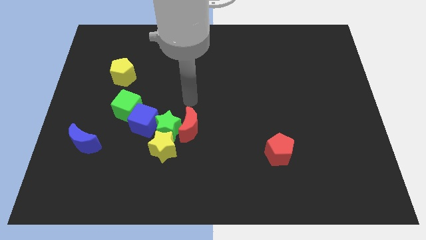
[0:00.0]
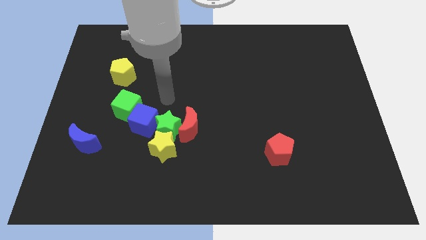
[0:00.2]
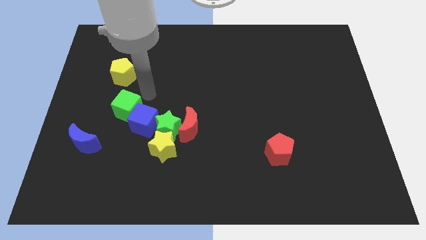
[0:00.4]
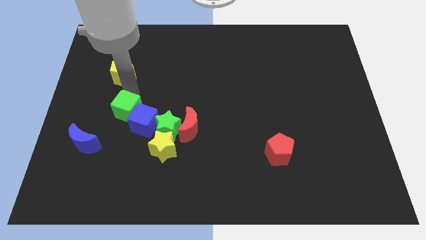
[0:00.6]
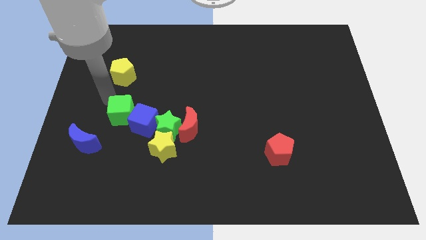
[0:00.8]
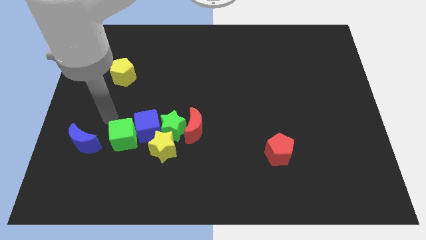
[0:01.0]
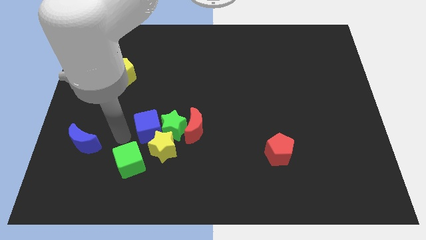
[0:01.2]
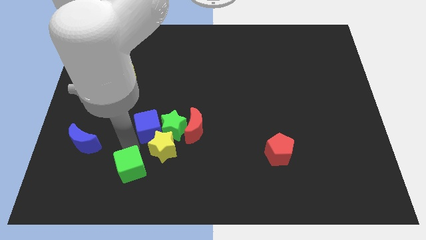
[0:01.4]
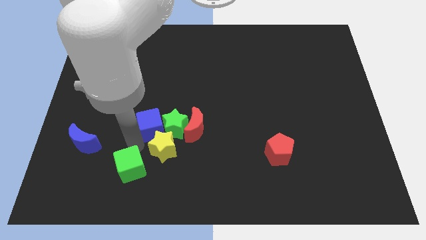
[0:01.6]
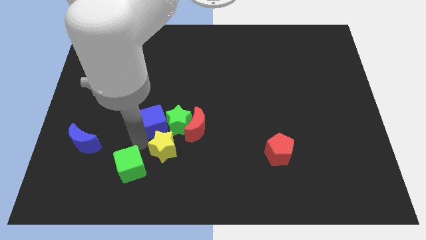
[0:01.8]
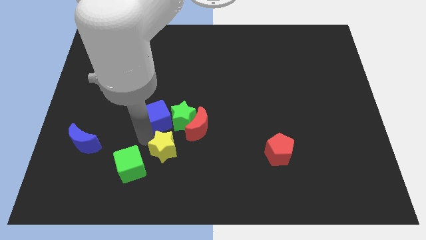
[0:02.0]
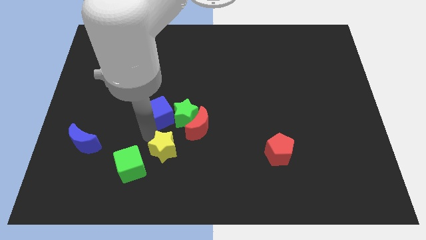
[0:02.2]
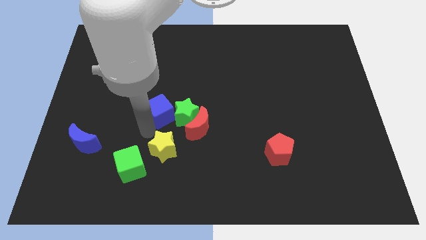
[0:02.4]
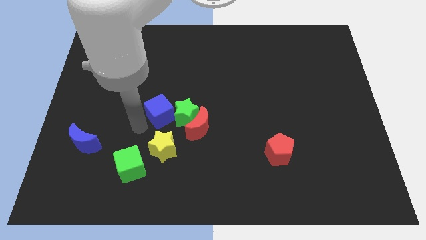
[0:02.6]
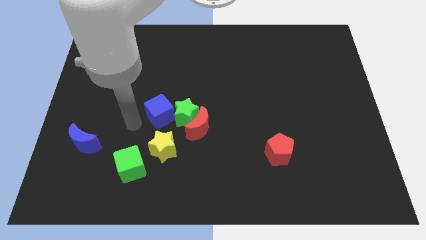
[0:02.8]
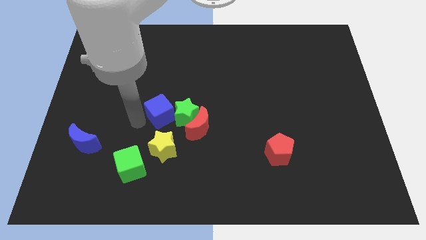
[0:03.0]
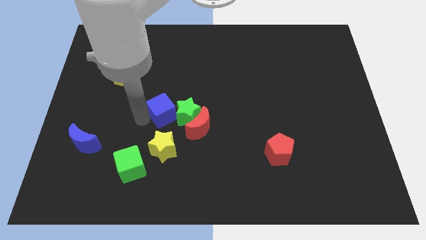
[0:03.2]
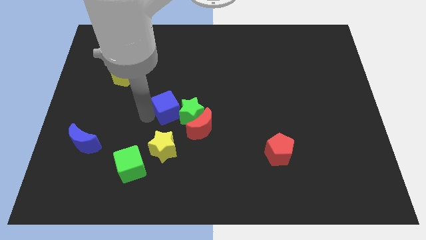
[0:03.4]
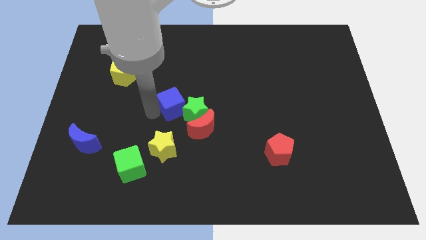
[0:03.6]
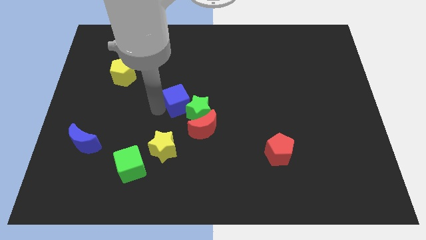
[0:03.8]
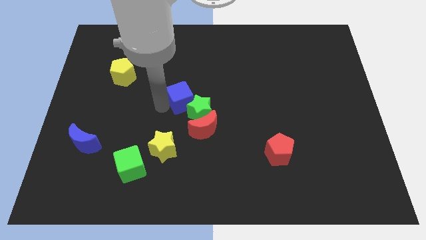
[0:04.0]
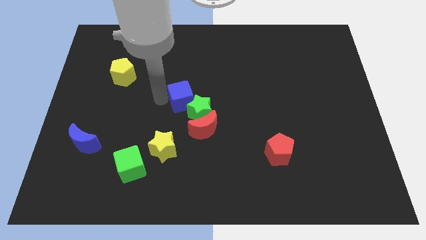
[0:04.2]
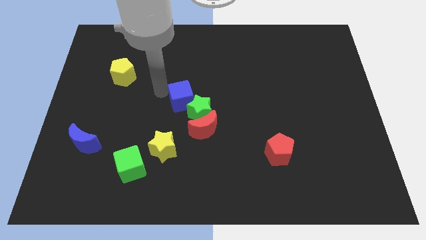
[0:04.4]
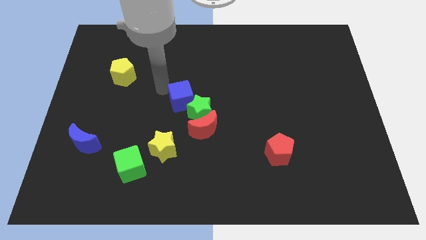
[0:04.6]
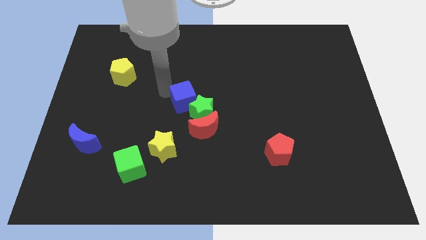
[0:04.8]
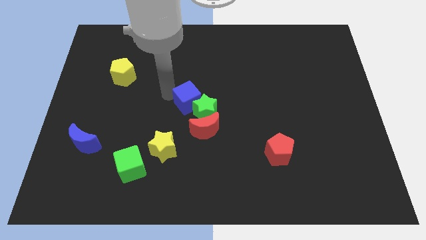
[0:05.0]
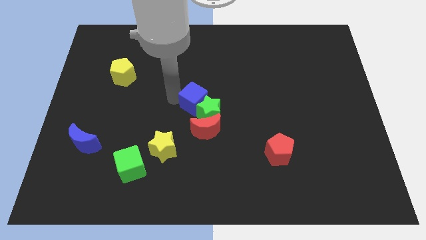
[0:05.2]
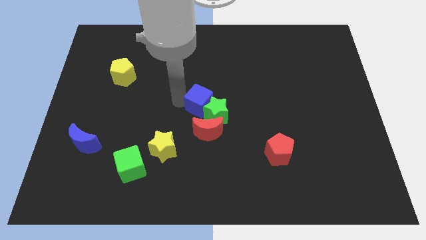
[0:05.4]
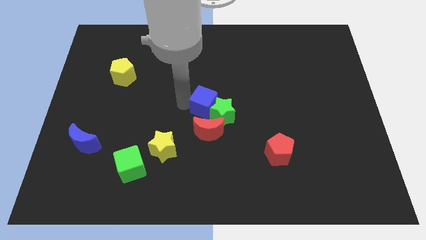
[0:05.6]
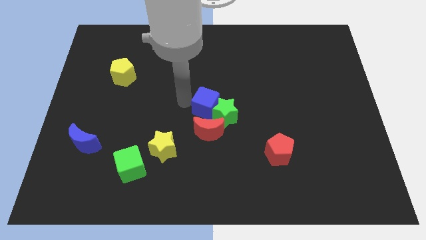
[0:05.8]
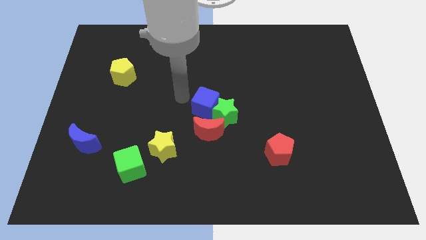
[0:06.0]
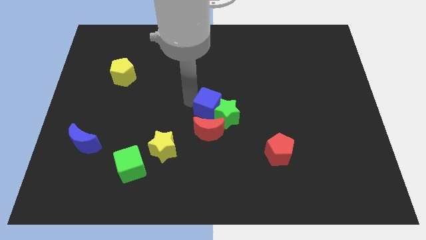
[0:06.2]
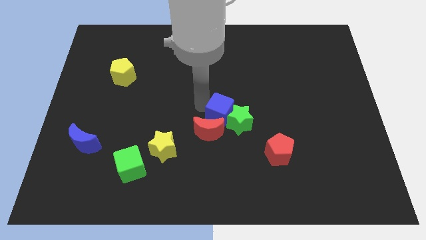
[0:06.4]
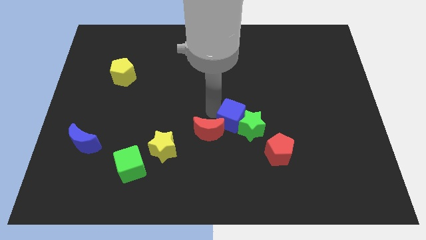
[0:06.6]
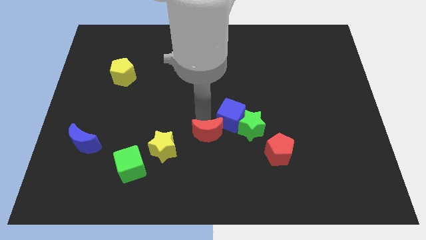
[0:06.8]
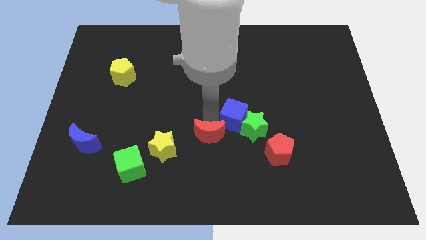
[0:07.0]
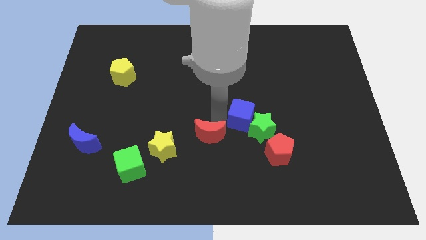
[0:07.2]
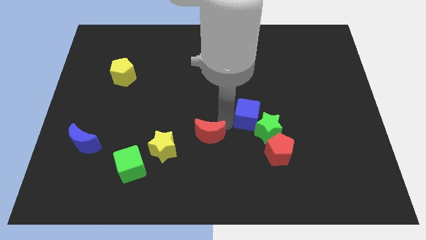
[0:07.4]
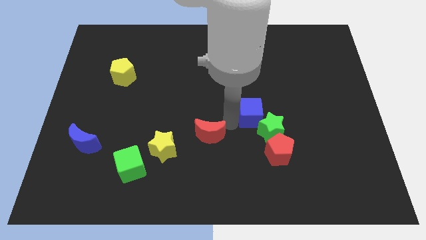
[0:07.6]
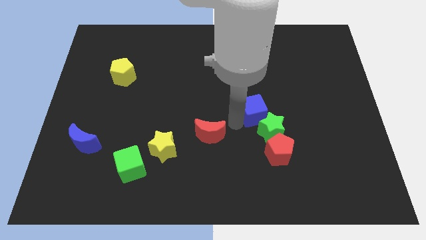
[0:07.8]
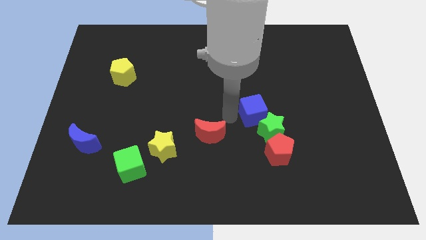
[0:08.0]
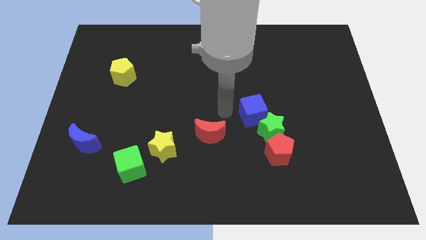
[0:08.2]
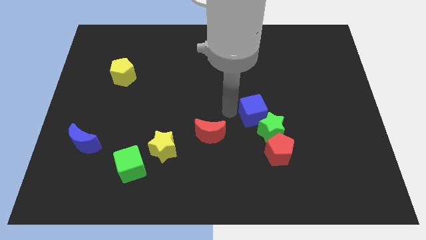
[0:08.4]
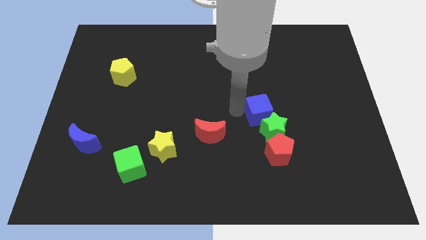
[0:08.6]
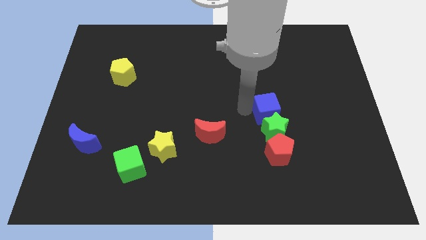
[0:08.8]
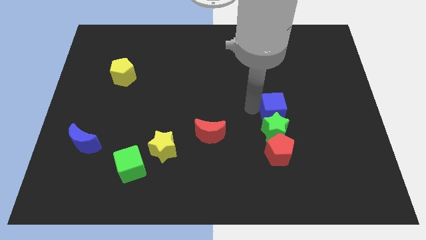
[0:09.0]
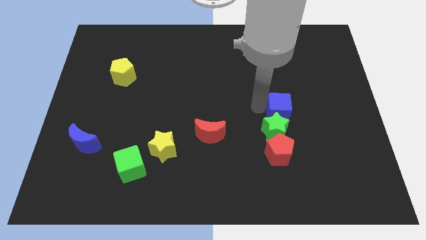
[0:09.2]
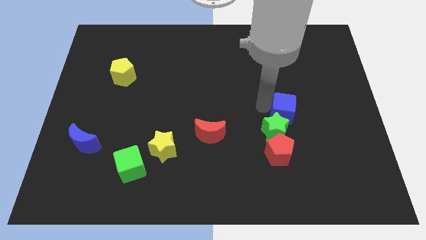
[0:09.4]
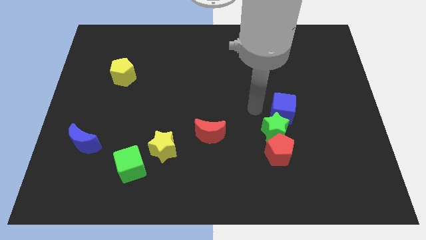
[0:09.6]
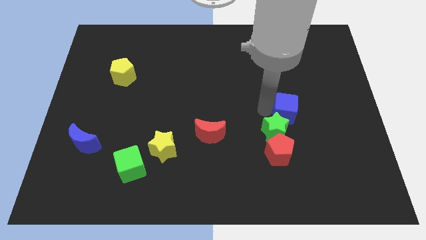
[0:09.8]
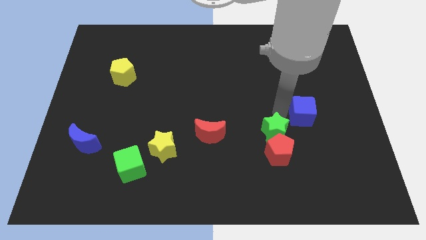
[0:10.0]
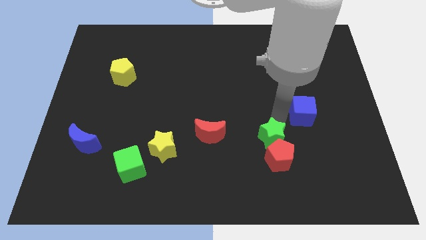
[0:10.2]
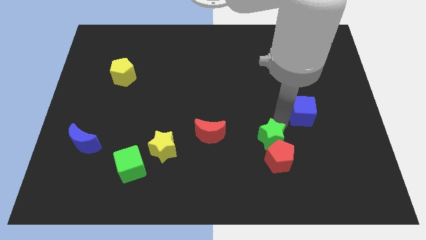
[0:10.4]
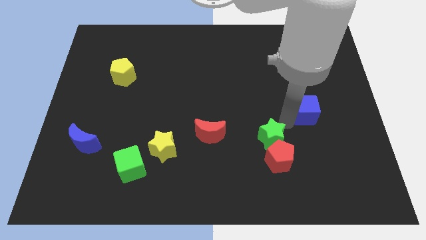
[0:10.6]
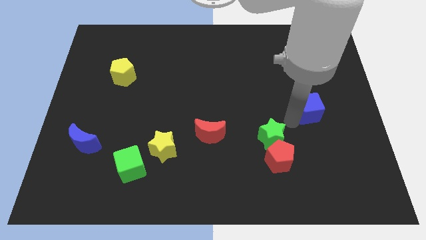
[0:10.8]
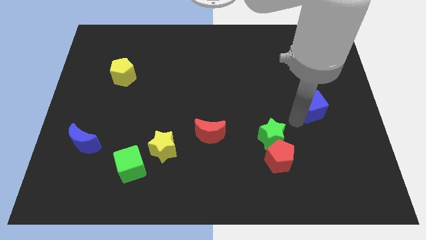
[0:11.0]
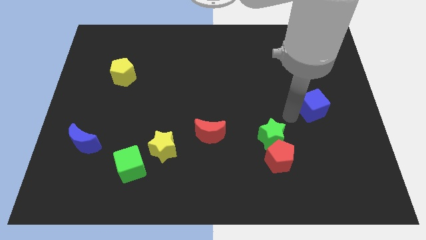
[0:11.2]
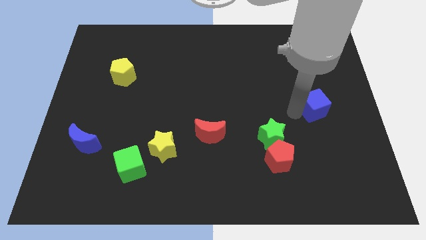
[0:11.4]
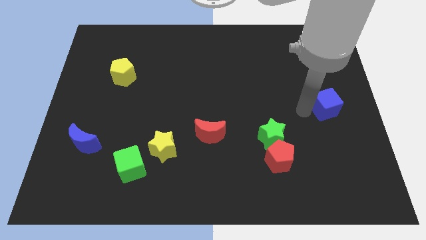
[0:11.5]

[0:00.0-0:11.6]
push the blue cube to the center right
